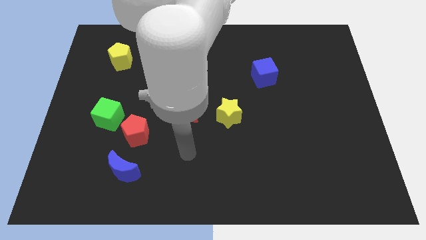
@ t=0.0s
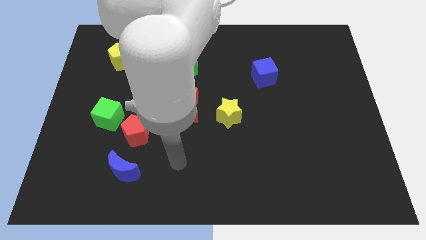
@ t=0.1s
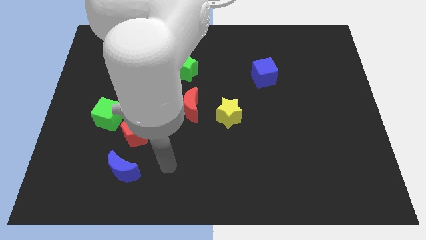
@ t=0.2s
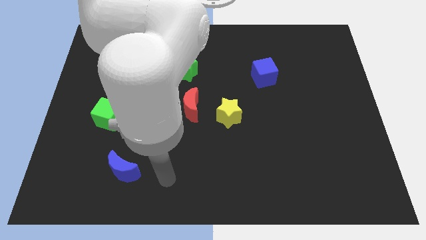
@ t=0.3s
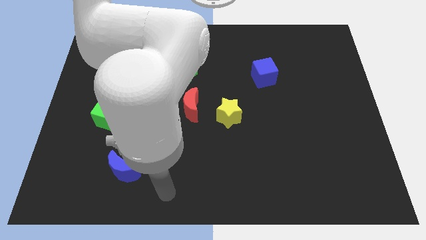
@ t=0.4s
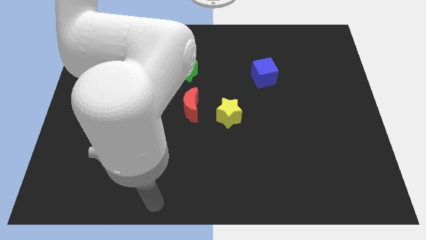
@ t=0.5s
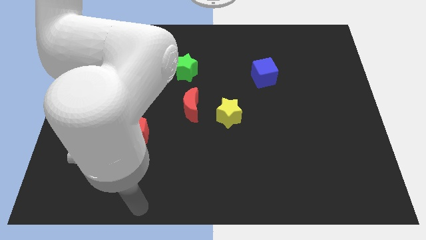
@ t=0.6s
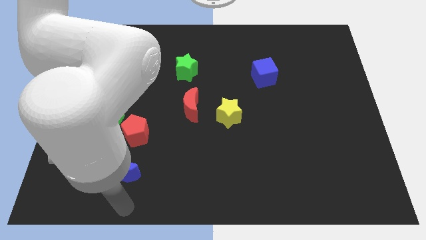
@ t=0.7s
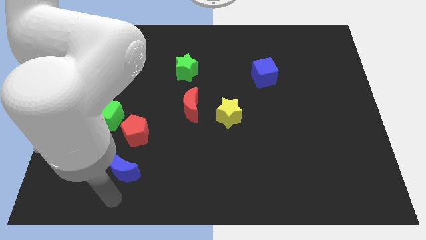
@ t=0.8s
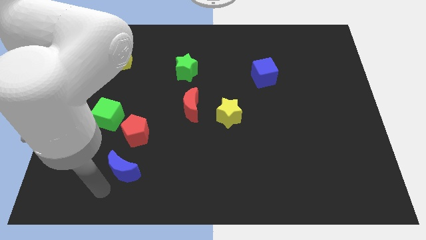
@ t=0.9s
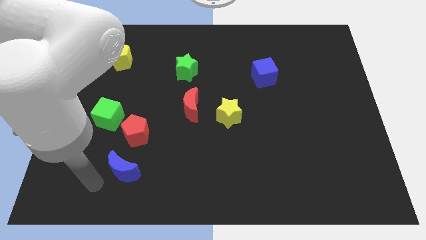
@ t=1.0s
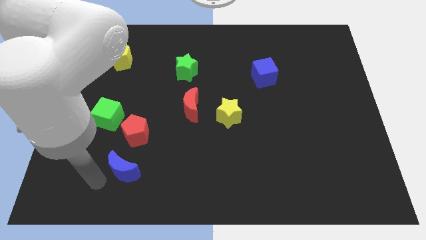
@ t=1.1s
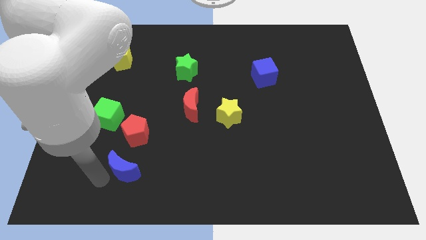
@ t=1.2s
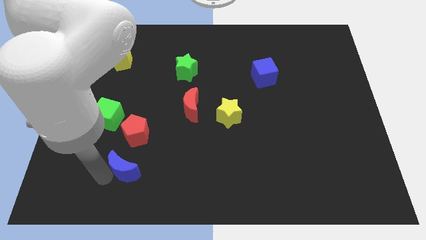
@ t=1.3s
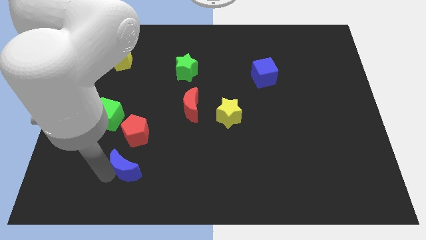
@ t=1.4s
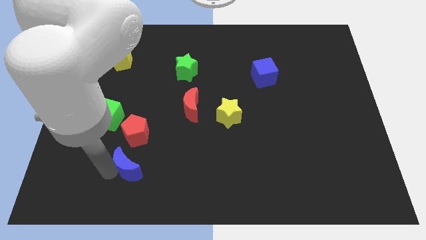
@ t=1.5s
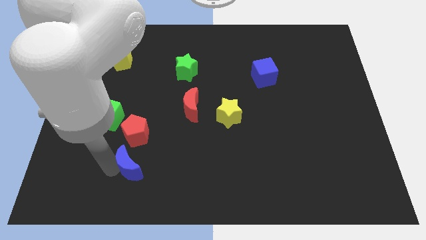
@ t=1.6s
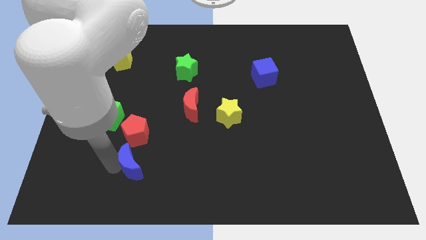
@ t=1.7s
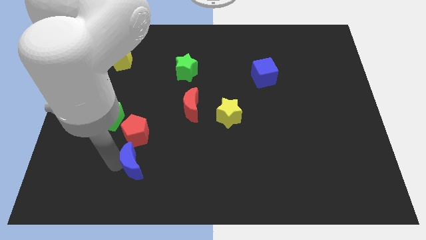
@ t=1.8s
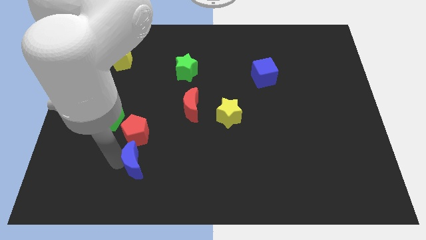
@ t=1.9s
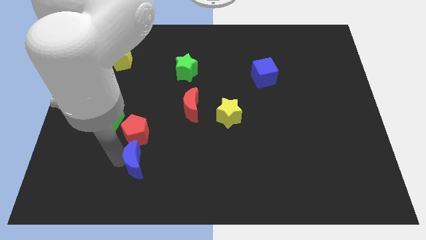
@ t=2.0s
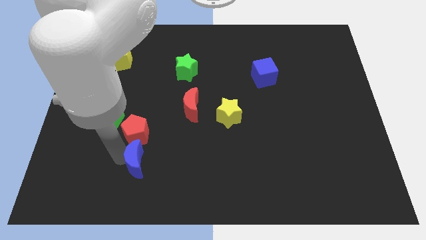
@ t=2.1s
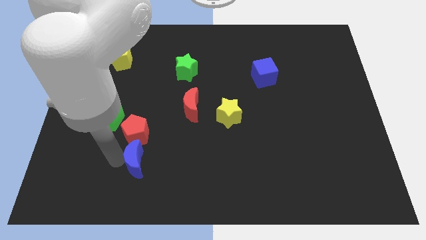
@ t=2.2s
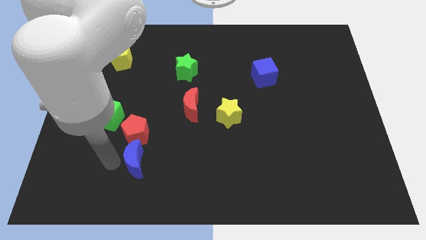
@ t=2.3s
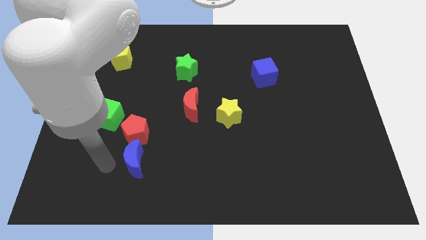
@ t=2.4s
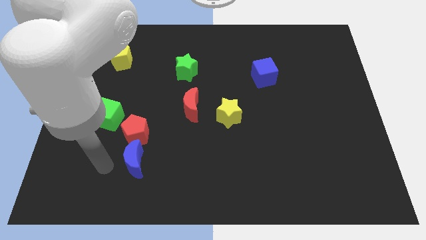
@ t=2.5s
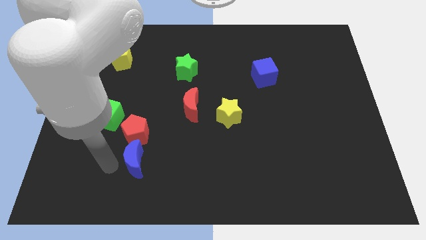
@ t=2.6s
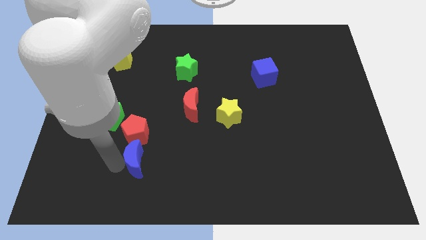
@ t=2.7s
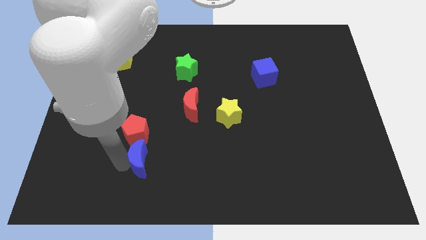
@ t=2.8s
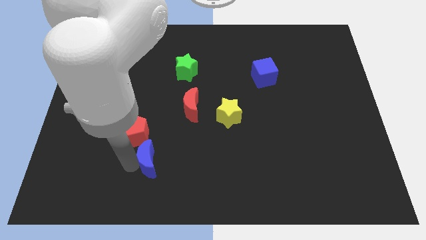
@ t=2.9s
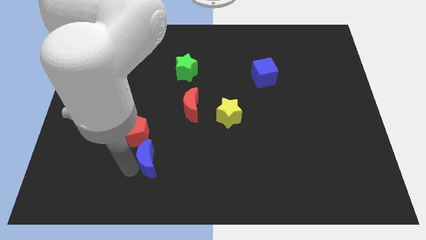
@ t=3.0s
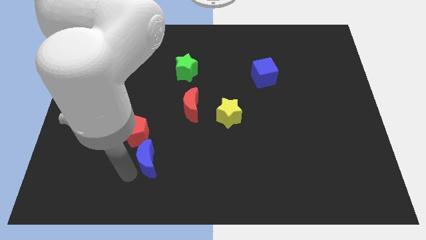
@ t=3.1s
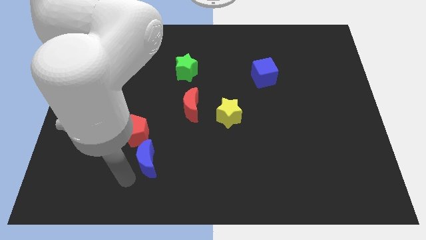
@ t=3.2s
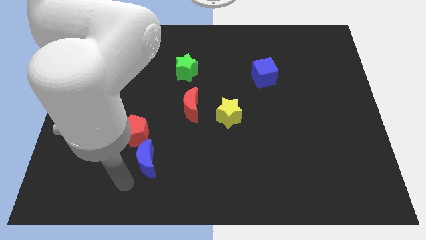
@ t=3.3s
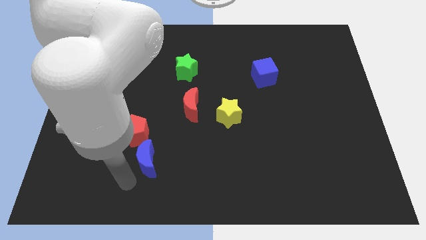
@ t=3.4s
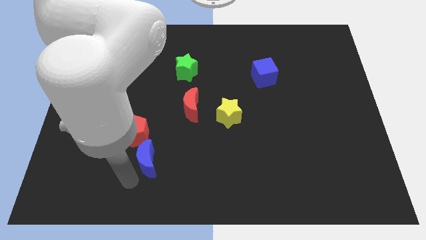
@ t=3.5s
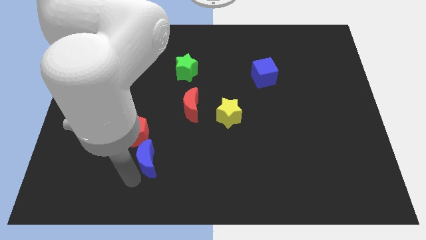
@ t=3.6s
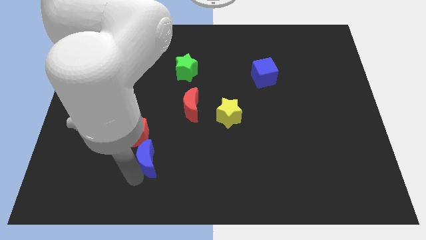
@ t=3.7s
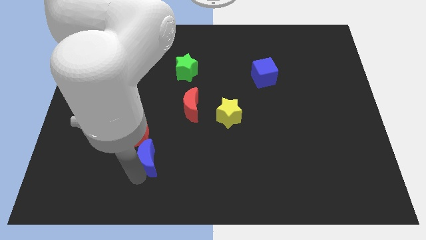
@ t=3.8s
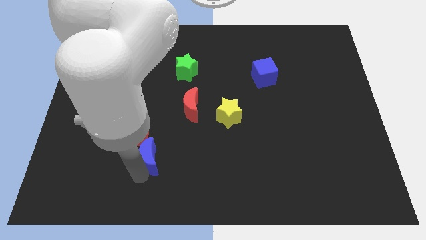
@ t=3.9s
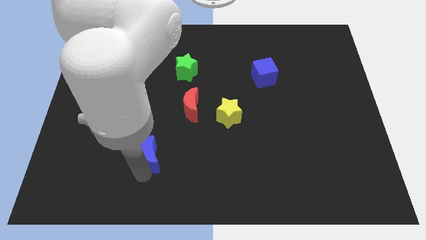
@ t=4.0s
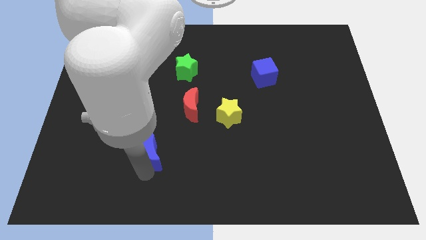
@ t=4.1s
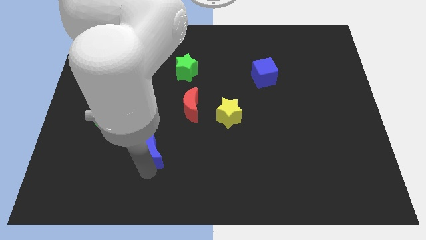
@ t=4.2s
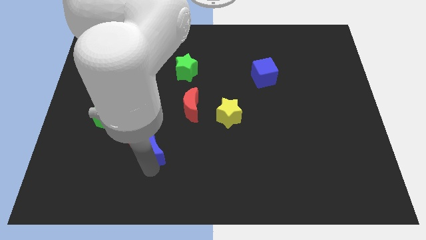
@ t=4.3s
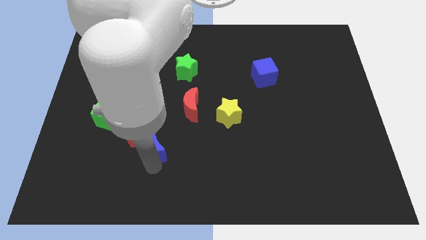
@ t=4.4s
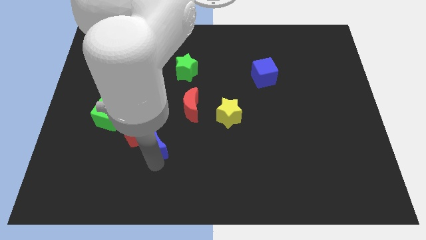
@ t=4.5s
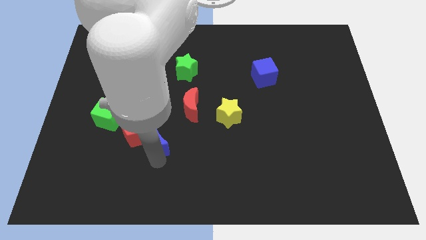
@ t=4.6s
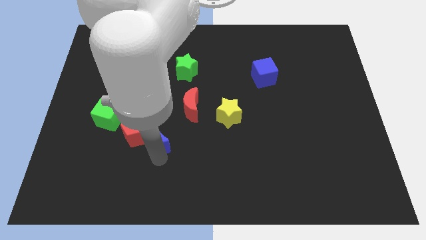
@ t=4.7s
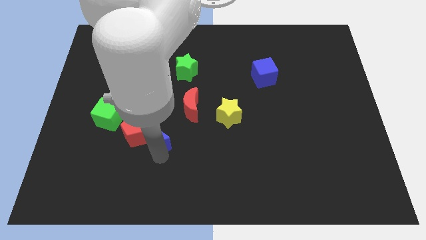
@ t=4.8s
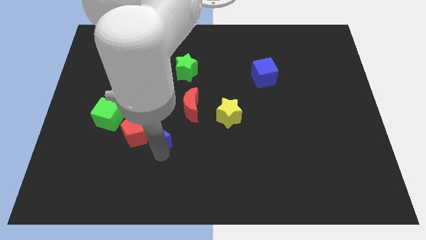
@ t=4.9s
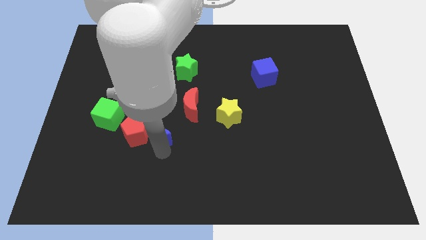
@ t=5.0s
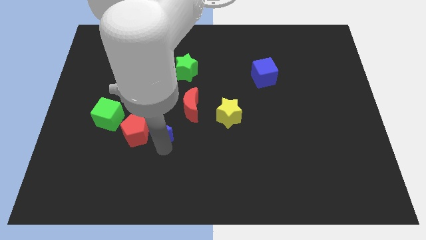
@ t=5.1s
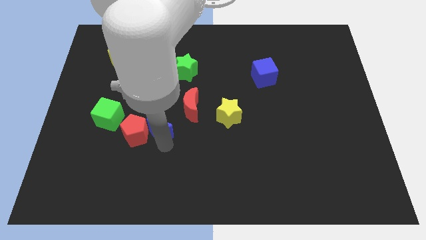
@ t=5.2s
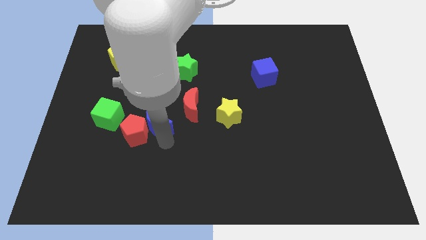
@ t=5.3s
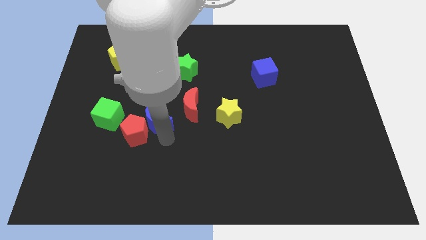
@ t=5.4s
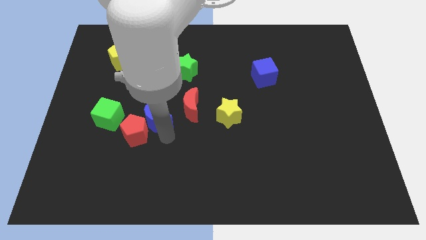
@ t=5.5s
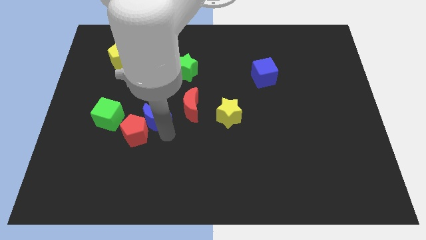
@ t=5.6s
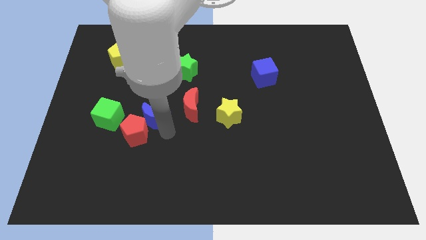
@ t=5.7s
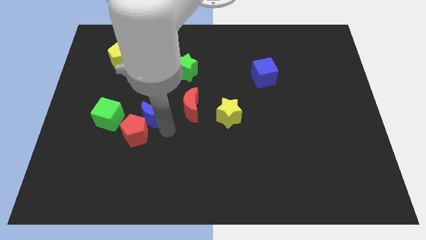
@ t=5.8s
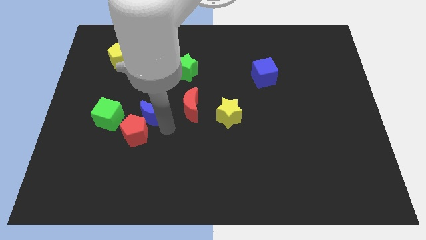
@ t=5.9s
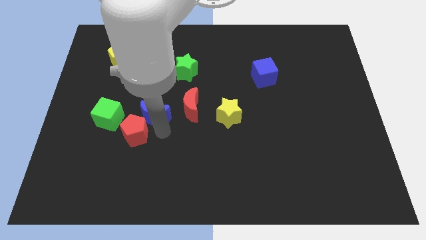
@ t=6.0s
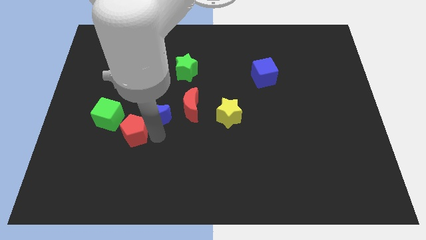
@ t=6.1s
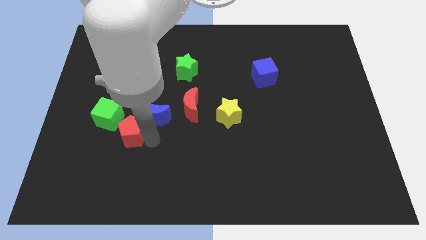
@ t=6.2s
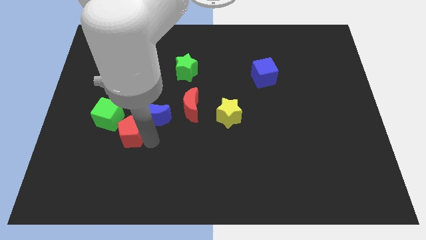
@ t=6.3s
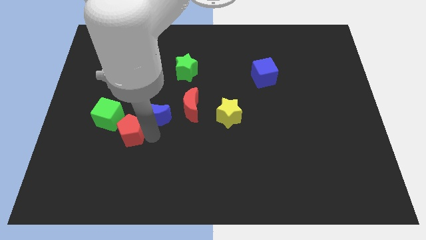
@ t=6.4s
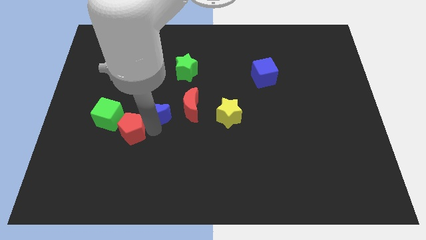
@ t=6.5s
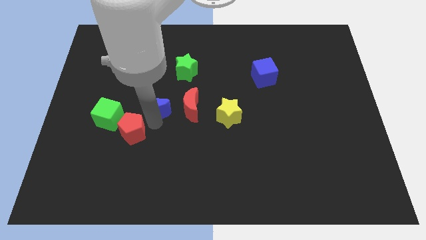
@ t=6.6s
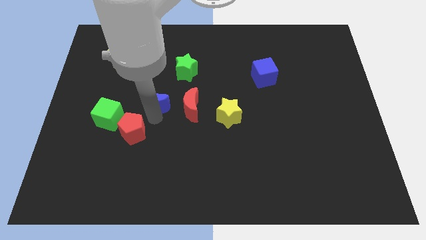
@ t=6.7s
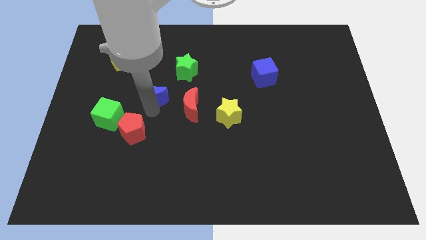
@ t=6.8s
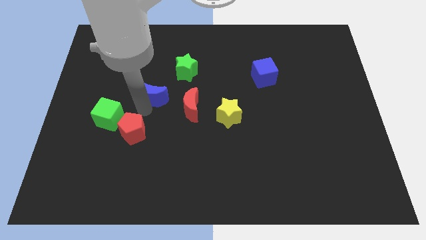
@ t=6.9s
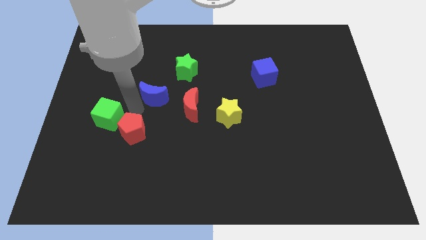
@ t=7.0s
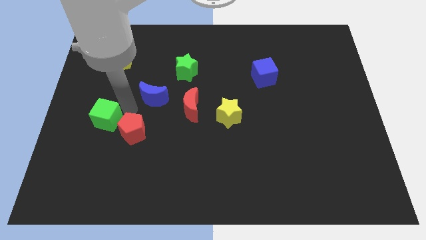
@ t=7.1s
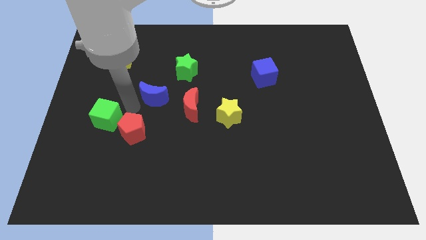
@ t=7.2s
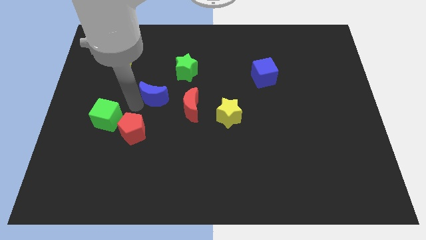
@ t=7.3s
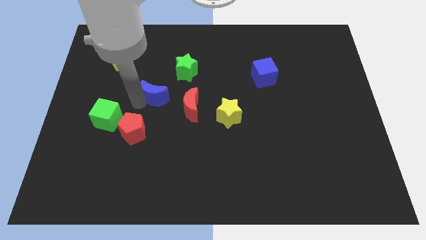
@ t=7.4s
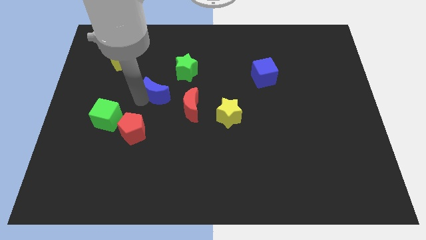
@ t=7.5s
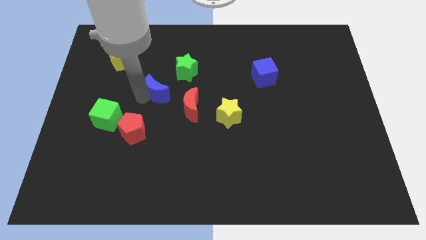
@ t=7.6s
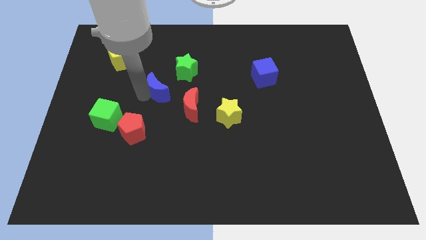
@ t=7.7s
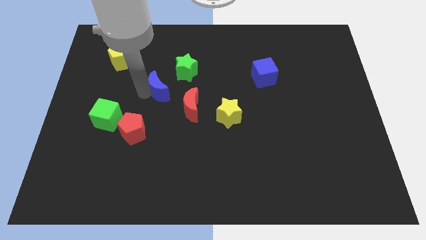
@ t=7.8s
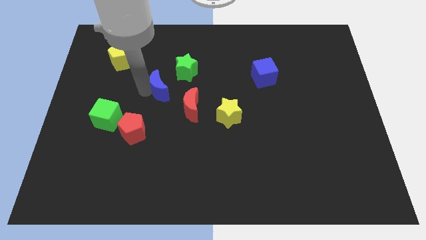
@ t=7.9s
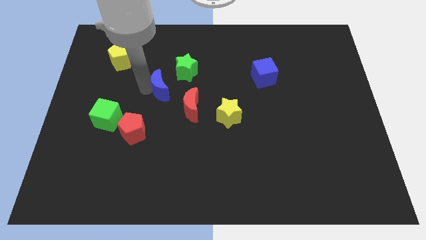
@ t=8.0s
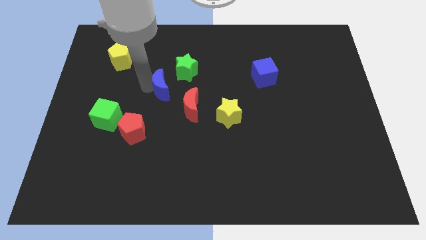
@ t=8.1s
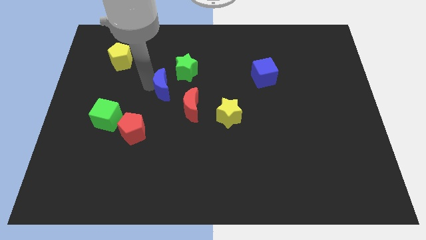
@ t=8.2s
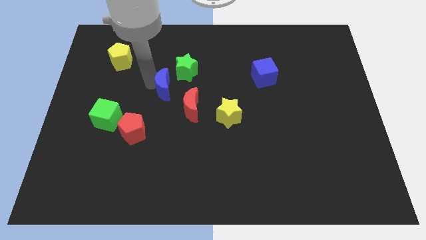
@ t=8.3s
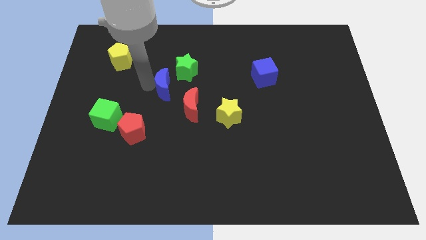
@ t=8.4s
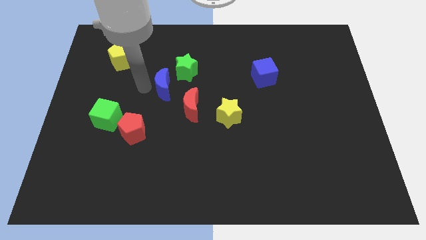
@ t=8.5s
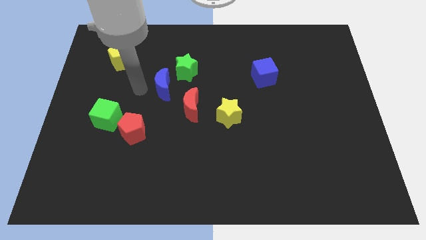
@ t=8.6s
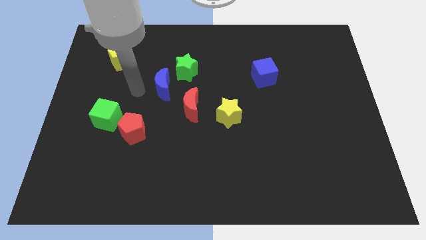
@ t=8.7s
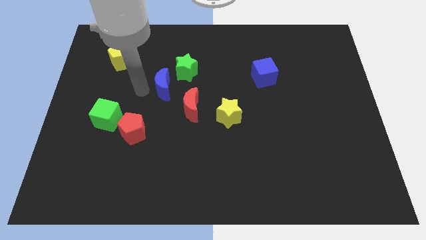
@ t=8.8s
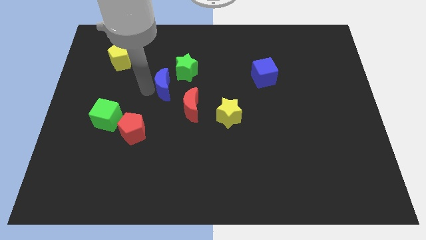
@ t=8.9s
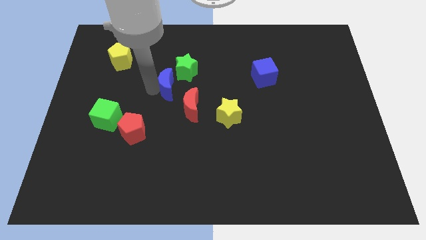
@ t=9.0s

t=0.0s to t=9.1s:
slide the blue moon to the middle
